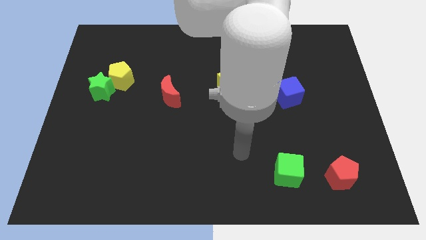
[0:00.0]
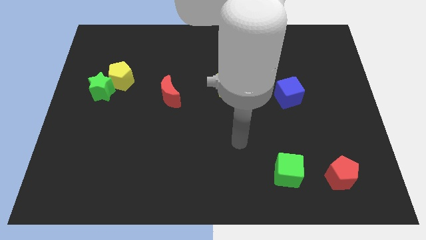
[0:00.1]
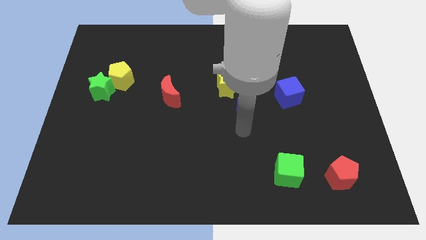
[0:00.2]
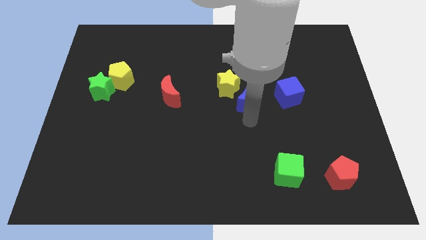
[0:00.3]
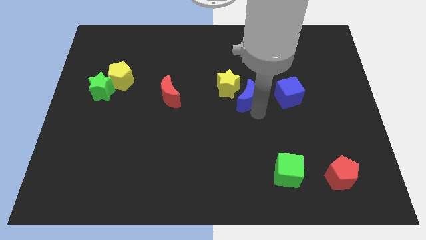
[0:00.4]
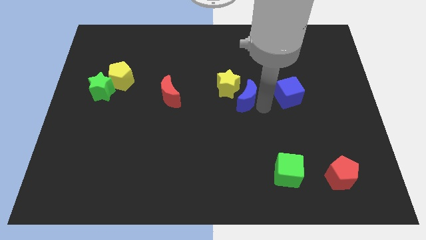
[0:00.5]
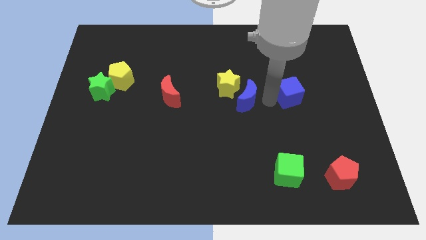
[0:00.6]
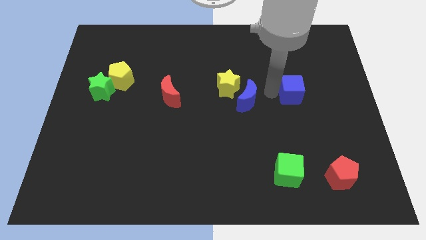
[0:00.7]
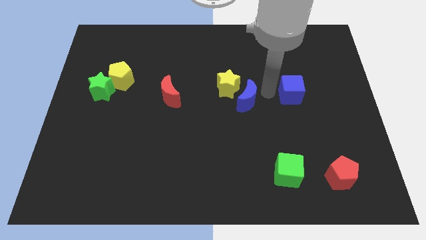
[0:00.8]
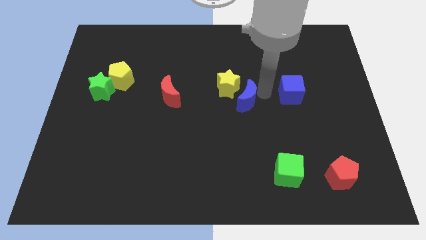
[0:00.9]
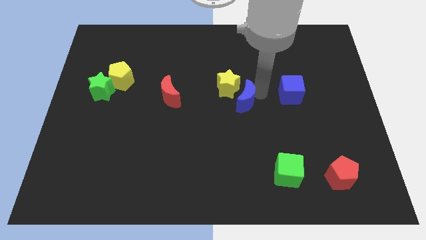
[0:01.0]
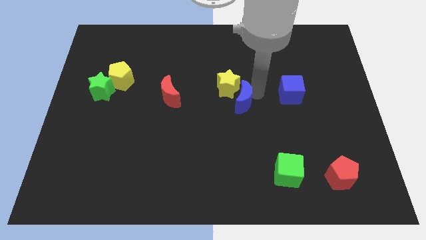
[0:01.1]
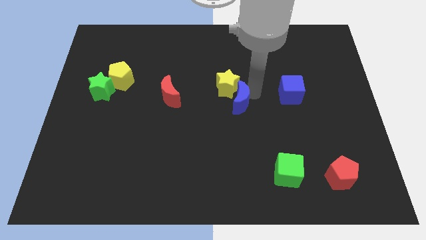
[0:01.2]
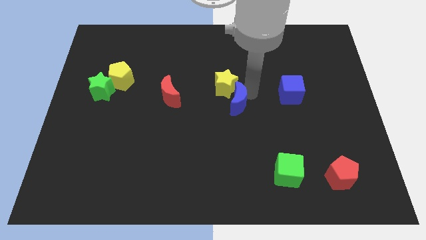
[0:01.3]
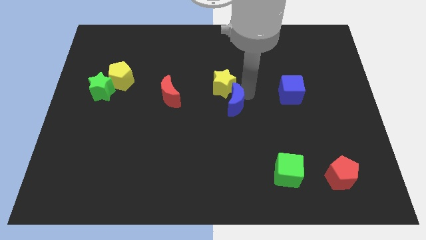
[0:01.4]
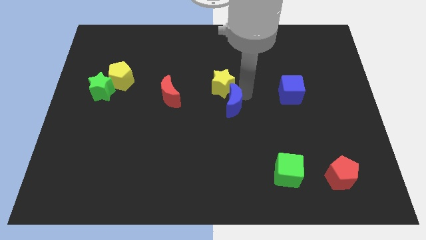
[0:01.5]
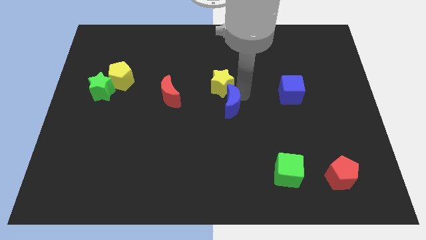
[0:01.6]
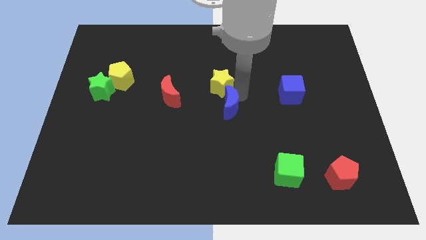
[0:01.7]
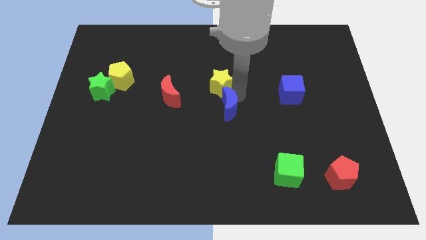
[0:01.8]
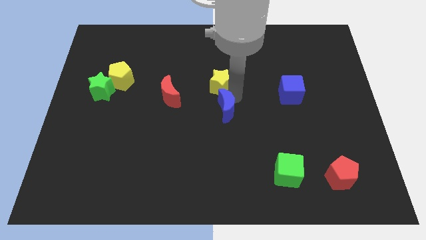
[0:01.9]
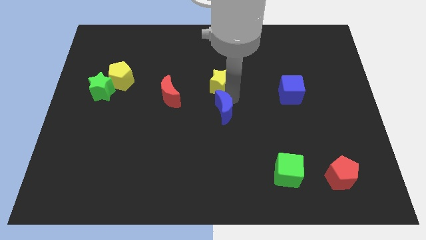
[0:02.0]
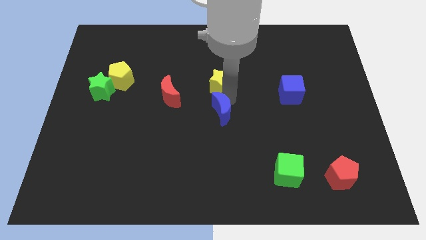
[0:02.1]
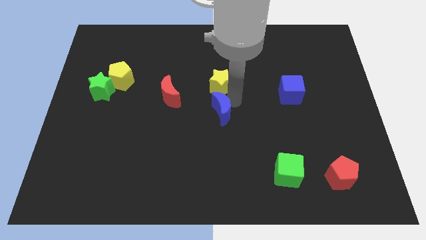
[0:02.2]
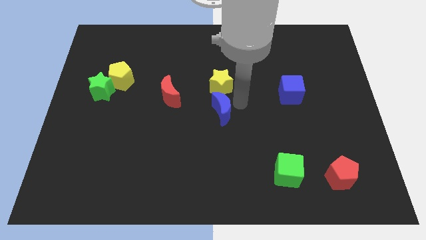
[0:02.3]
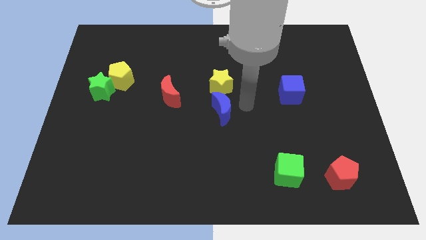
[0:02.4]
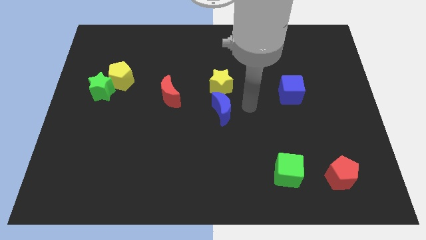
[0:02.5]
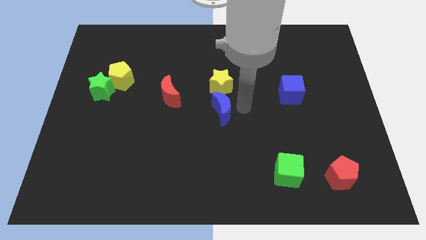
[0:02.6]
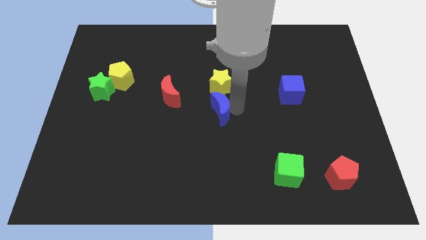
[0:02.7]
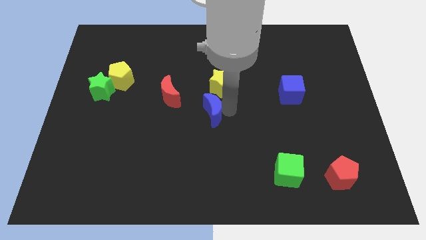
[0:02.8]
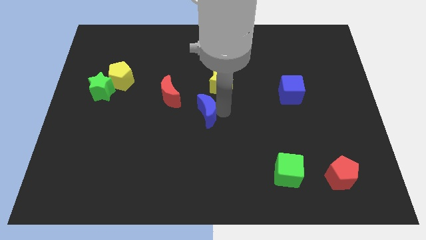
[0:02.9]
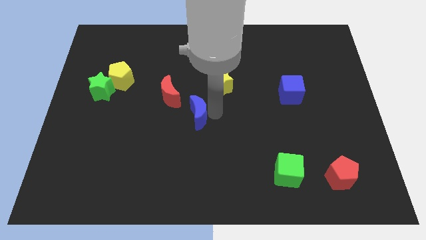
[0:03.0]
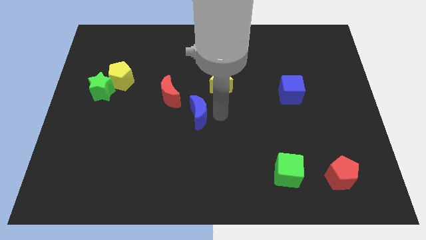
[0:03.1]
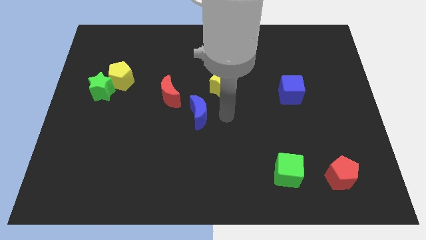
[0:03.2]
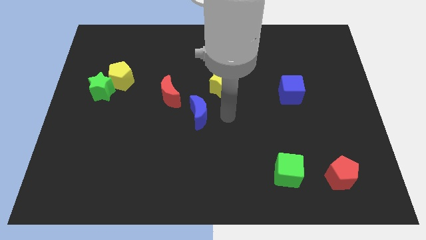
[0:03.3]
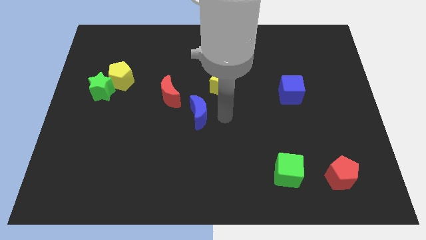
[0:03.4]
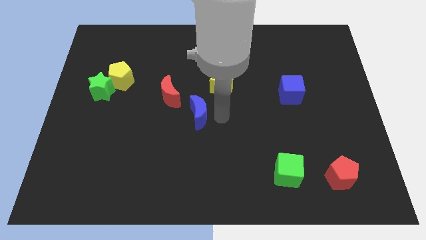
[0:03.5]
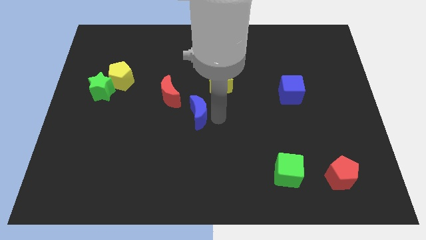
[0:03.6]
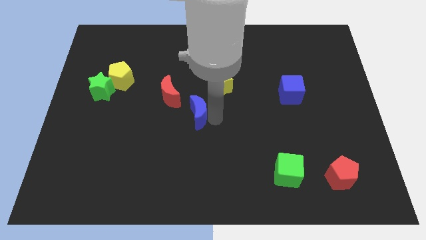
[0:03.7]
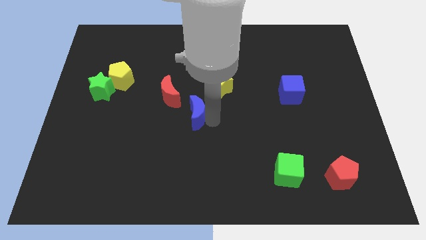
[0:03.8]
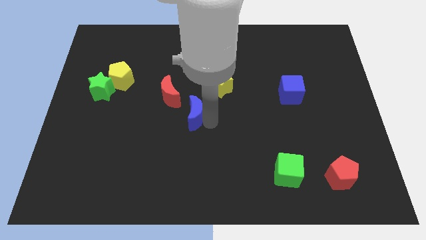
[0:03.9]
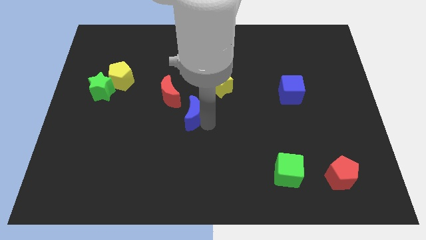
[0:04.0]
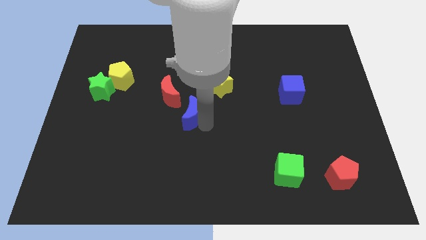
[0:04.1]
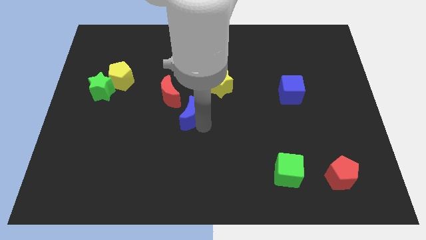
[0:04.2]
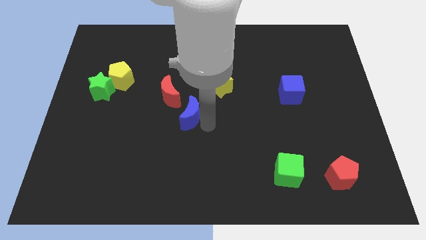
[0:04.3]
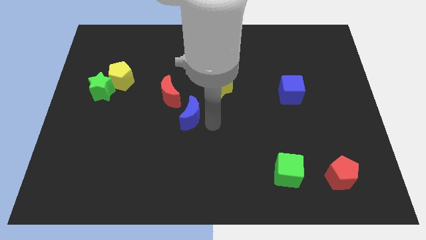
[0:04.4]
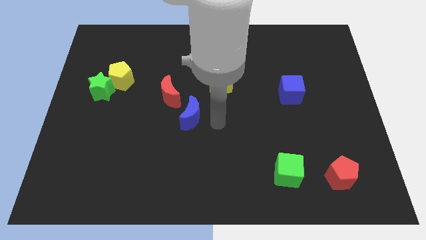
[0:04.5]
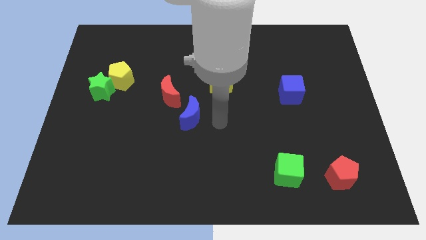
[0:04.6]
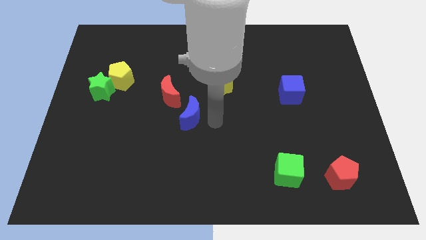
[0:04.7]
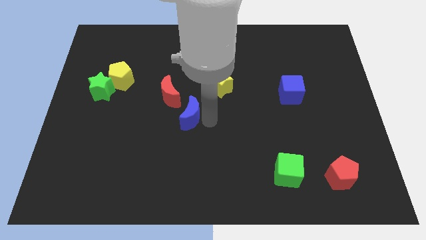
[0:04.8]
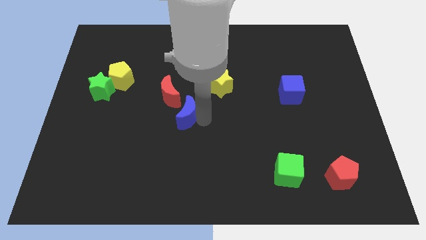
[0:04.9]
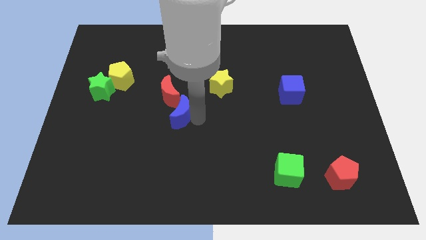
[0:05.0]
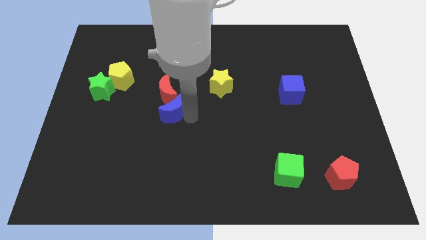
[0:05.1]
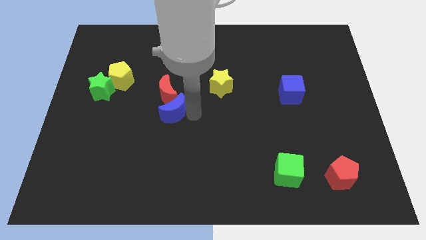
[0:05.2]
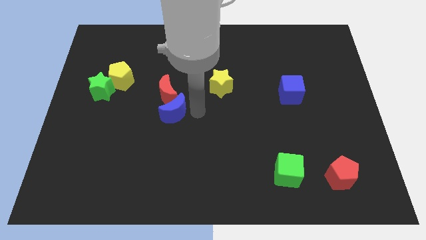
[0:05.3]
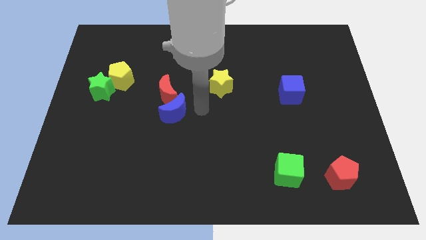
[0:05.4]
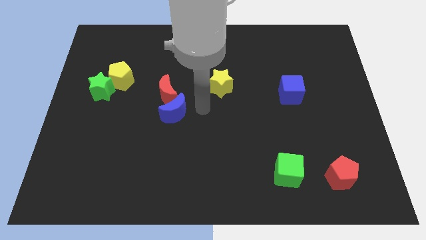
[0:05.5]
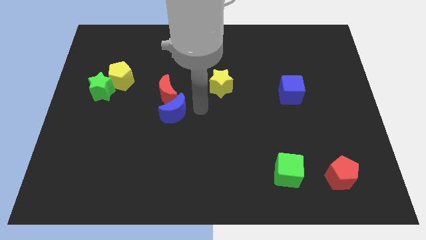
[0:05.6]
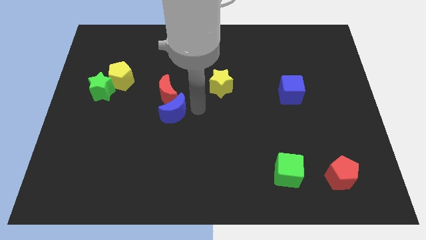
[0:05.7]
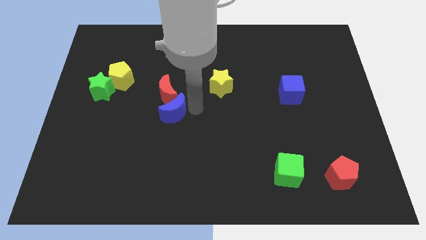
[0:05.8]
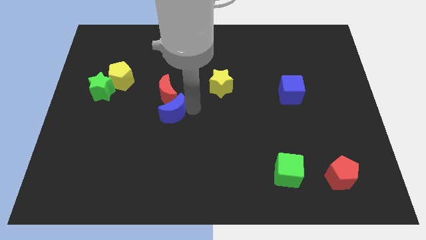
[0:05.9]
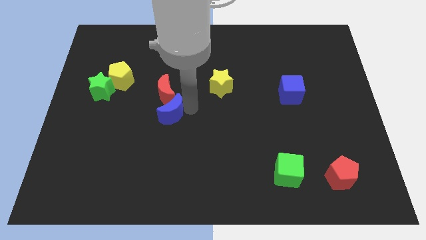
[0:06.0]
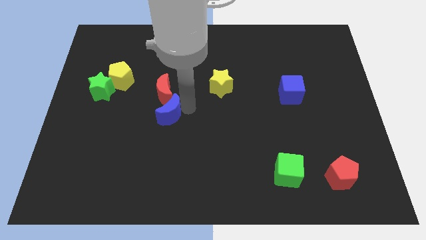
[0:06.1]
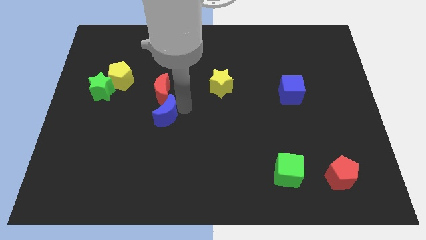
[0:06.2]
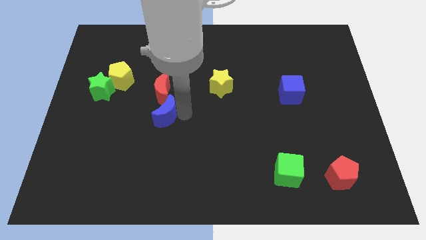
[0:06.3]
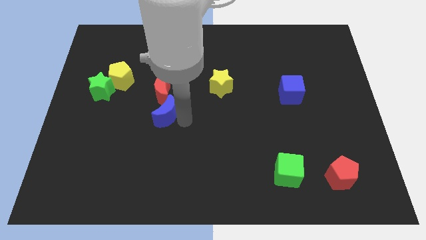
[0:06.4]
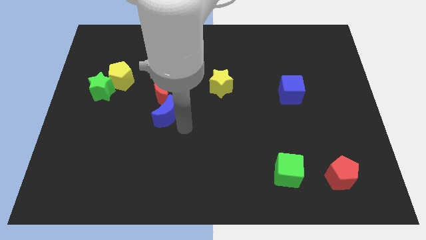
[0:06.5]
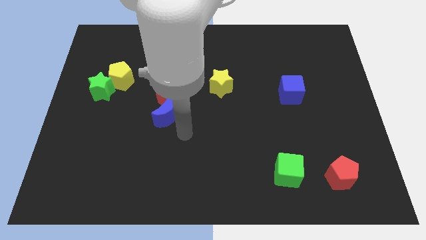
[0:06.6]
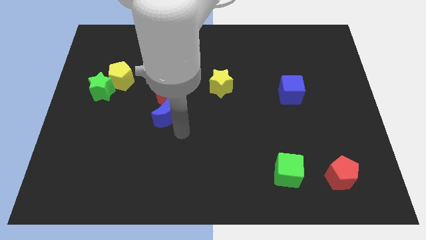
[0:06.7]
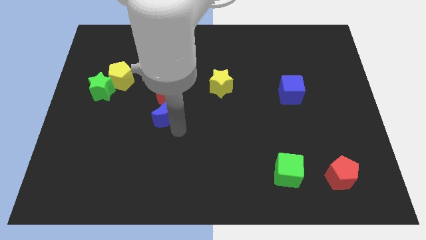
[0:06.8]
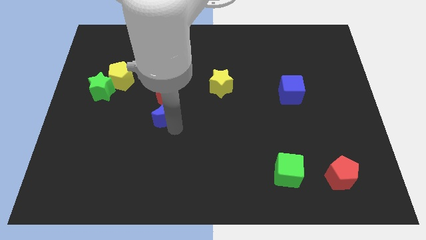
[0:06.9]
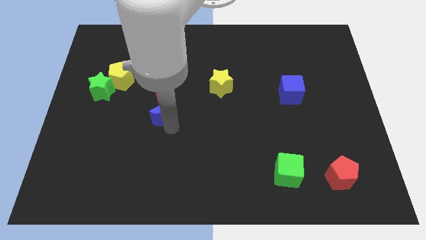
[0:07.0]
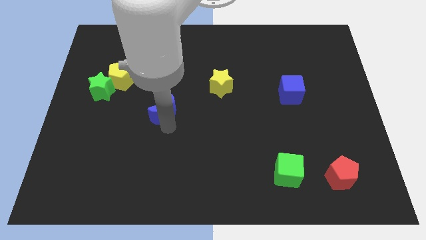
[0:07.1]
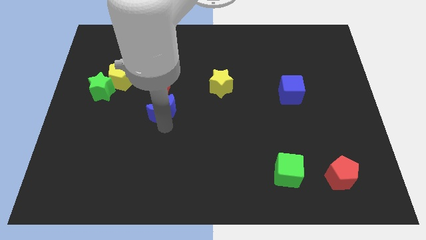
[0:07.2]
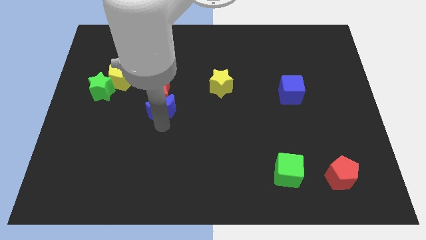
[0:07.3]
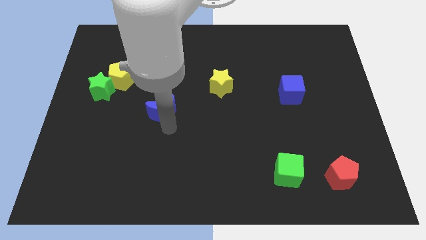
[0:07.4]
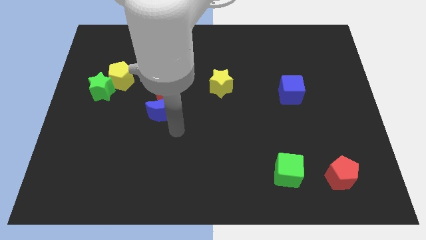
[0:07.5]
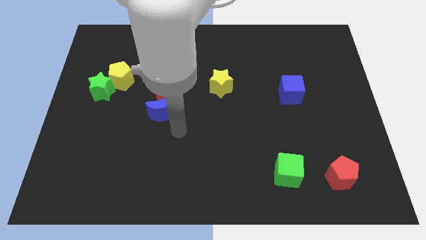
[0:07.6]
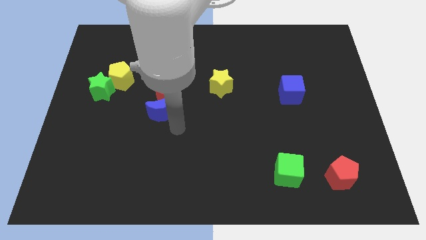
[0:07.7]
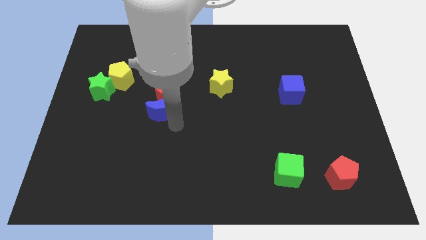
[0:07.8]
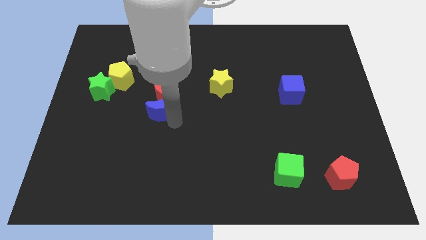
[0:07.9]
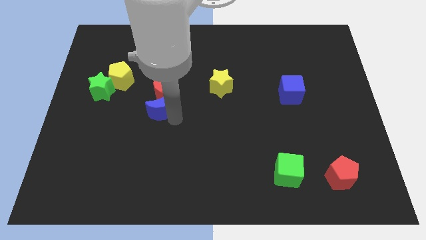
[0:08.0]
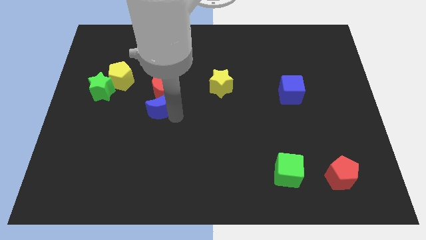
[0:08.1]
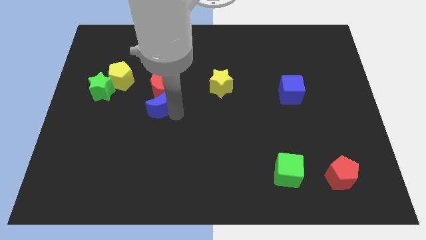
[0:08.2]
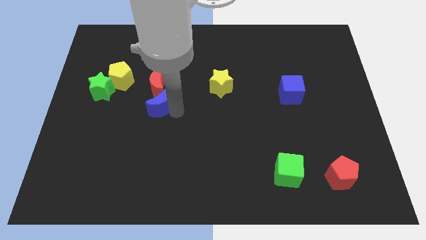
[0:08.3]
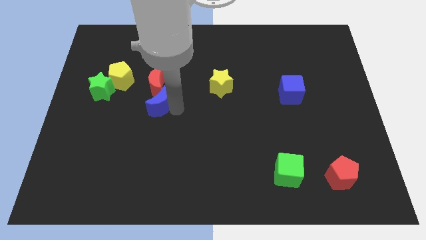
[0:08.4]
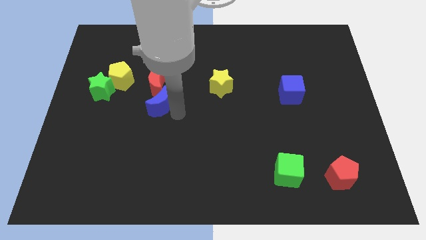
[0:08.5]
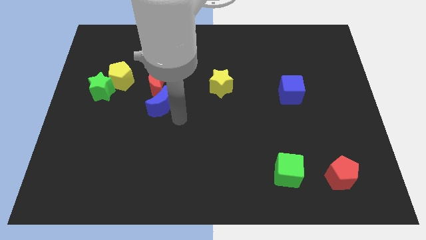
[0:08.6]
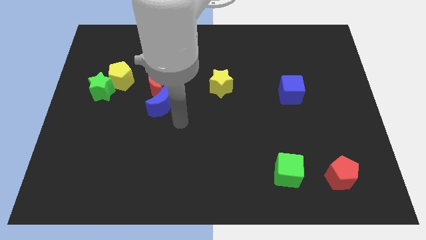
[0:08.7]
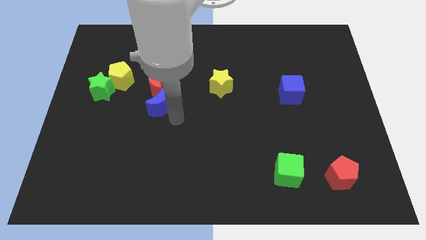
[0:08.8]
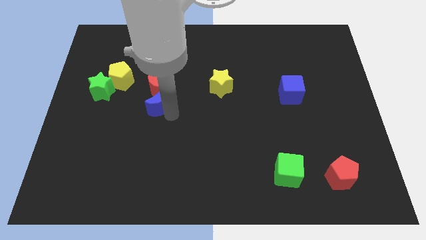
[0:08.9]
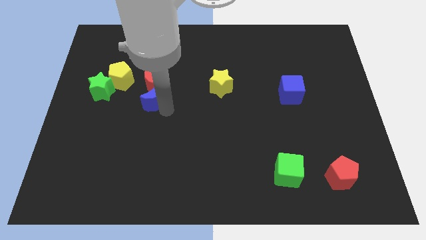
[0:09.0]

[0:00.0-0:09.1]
push the blue moon right of the green star
